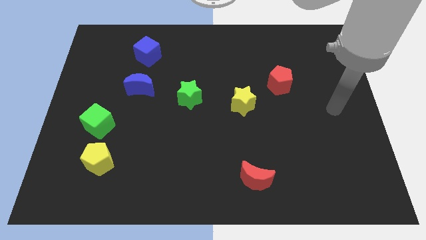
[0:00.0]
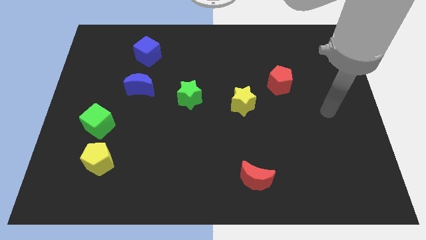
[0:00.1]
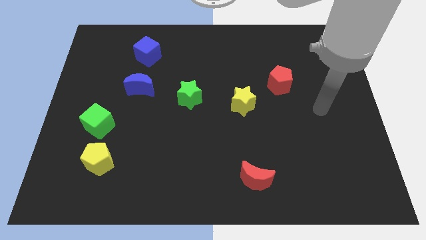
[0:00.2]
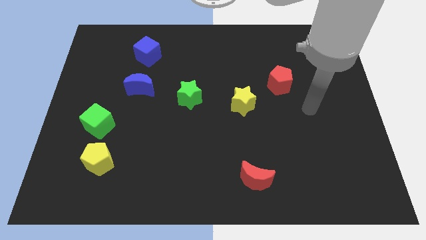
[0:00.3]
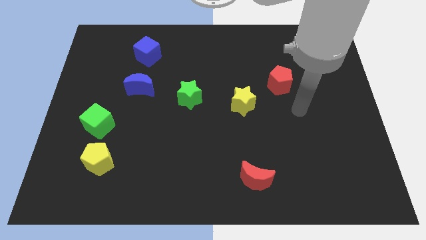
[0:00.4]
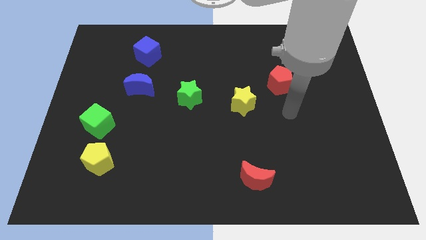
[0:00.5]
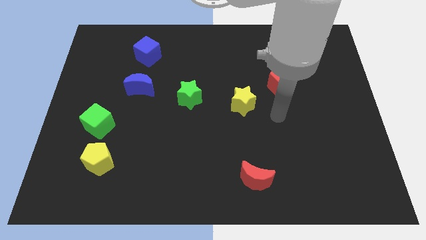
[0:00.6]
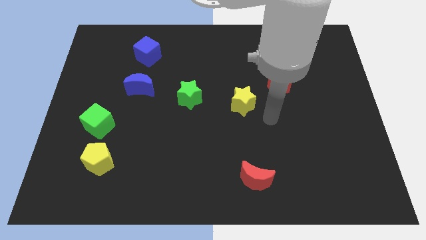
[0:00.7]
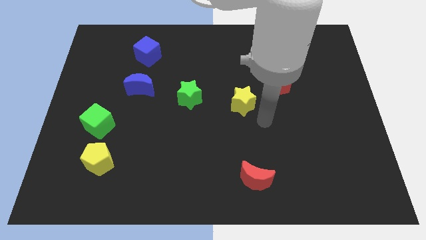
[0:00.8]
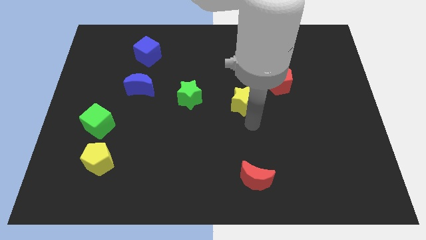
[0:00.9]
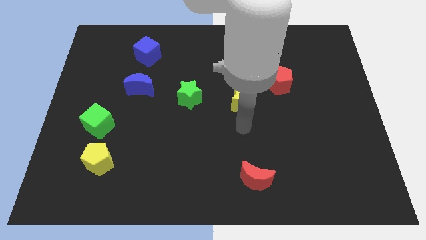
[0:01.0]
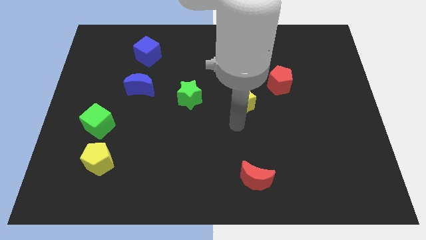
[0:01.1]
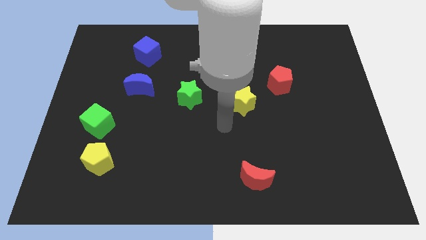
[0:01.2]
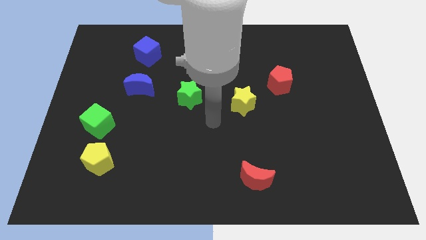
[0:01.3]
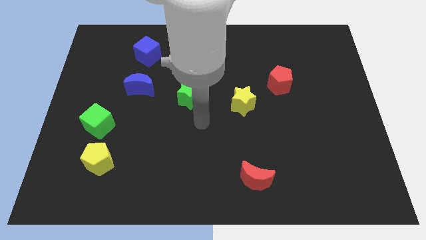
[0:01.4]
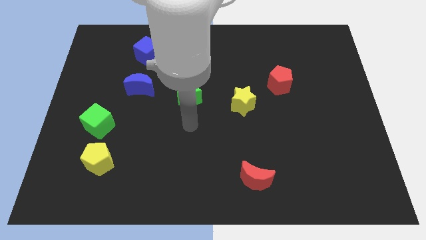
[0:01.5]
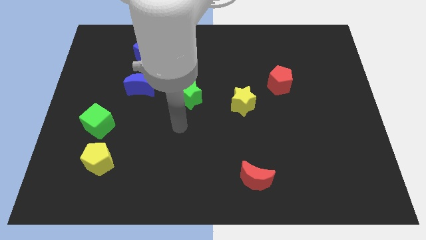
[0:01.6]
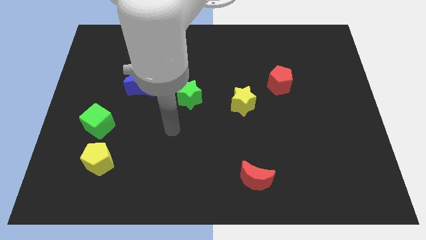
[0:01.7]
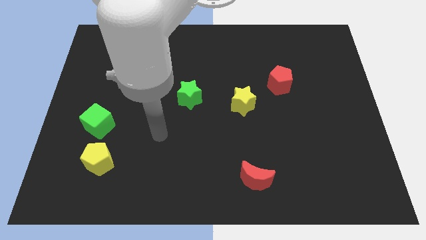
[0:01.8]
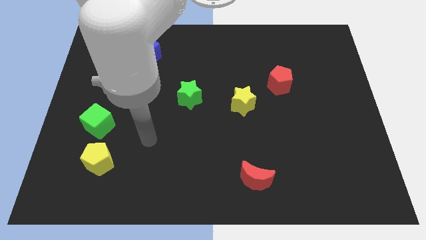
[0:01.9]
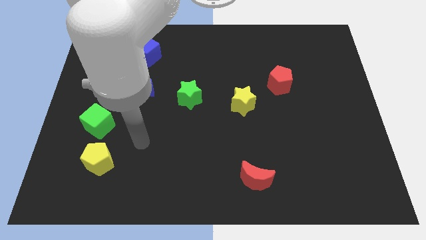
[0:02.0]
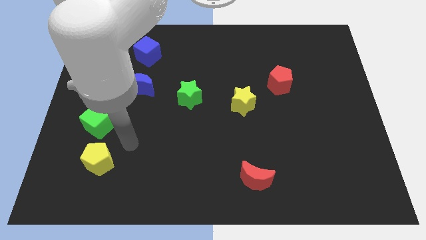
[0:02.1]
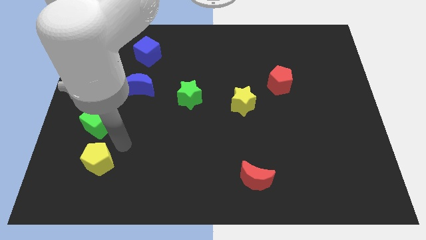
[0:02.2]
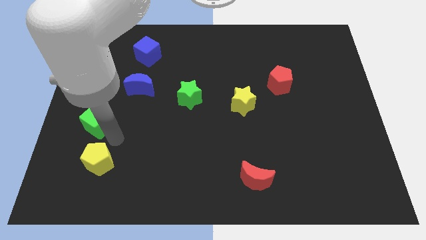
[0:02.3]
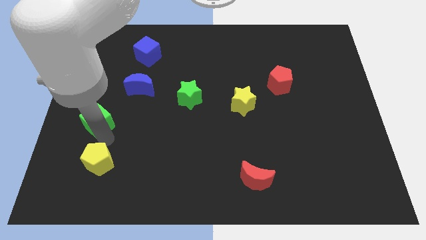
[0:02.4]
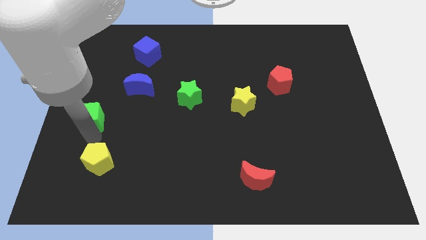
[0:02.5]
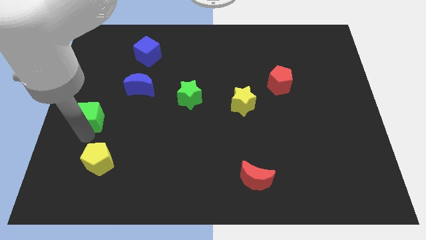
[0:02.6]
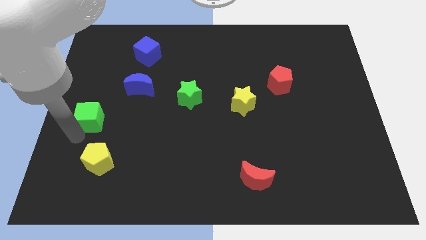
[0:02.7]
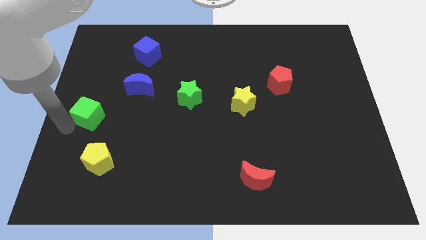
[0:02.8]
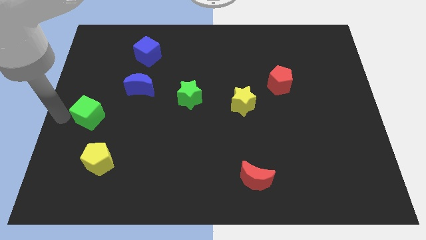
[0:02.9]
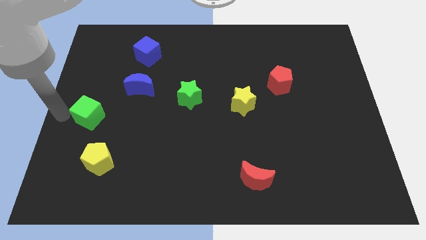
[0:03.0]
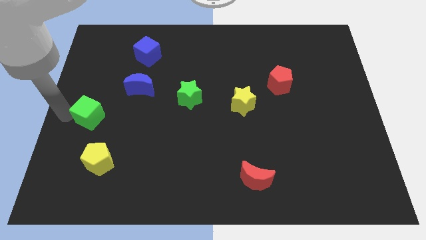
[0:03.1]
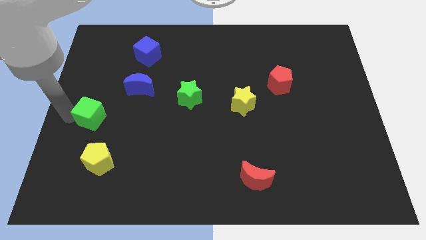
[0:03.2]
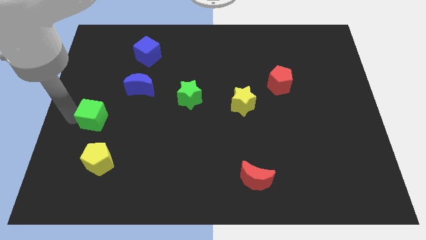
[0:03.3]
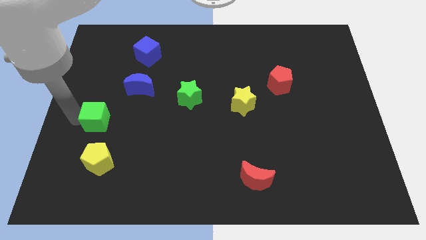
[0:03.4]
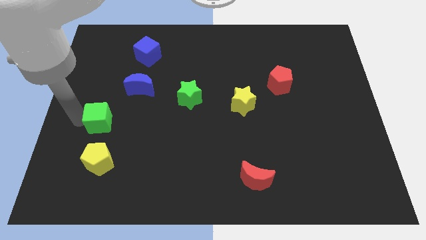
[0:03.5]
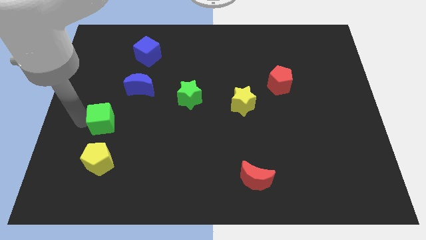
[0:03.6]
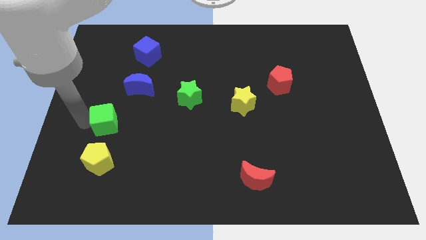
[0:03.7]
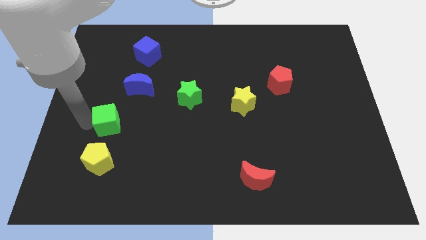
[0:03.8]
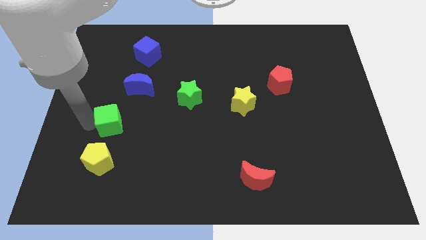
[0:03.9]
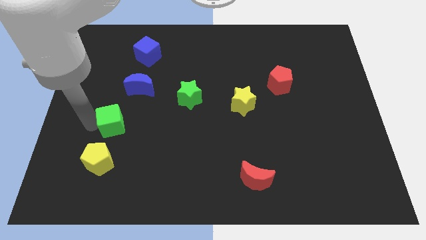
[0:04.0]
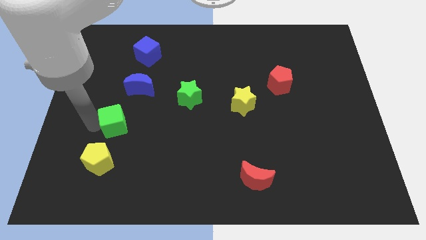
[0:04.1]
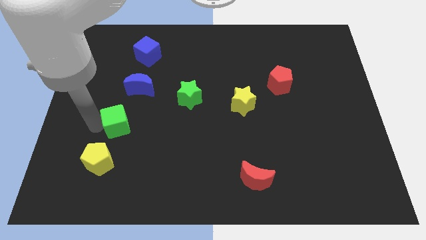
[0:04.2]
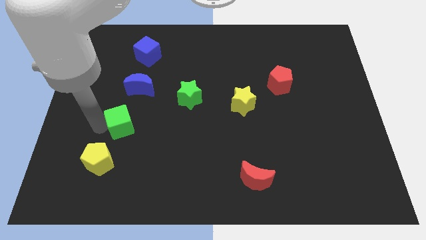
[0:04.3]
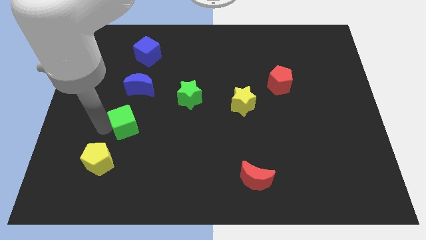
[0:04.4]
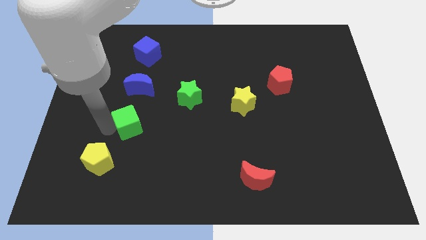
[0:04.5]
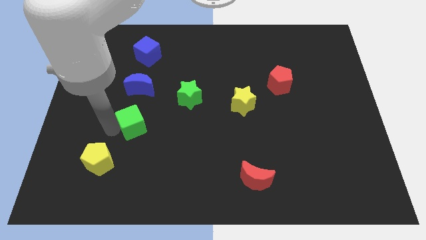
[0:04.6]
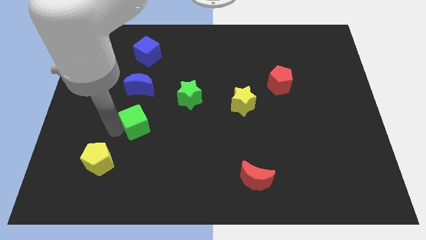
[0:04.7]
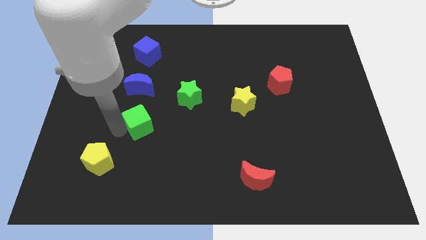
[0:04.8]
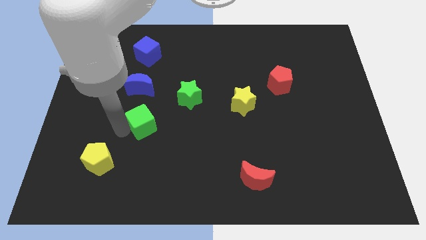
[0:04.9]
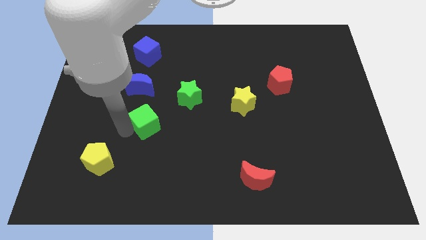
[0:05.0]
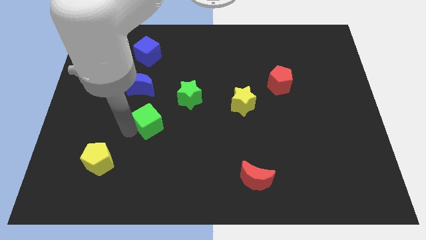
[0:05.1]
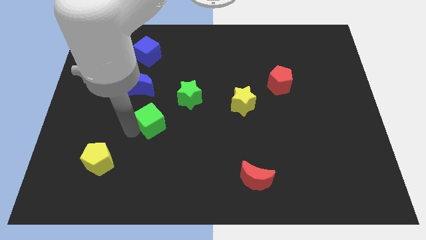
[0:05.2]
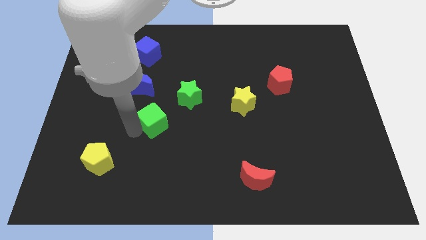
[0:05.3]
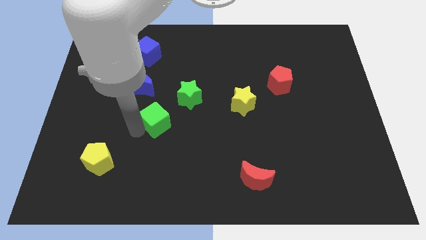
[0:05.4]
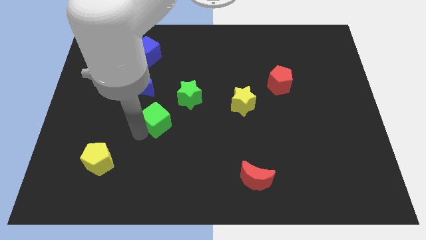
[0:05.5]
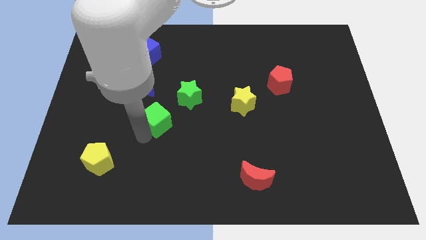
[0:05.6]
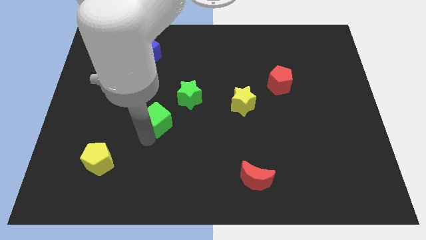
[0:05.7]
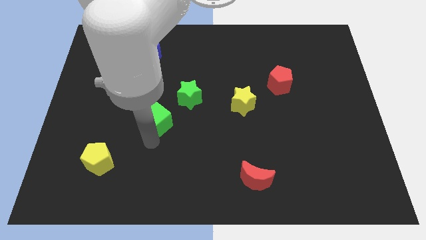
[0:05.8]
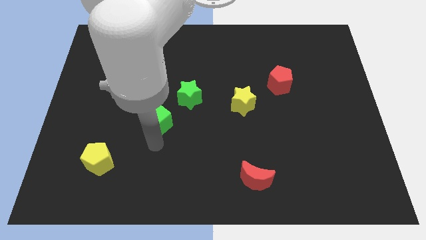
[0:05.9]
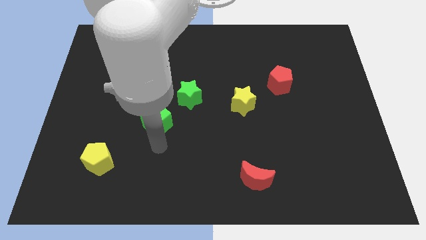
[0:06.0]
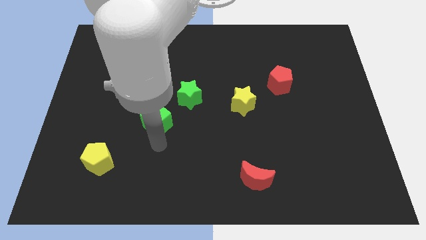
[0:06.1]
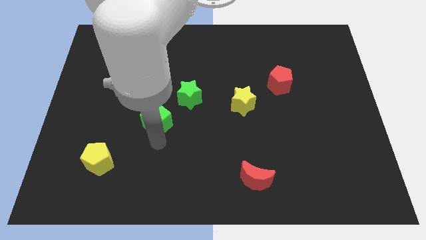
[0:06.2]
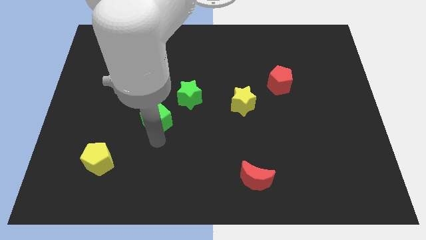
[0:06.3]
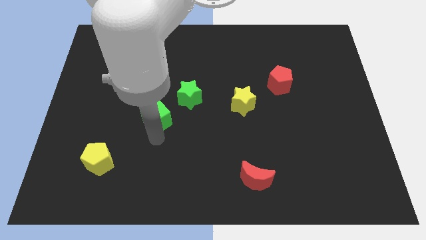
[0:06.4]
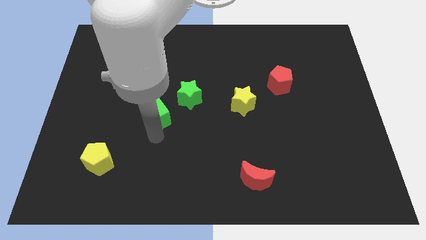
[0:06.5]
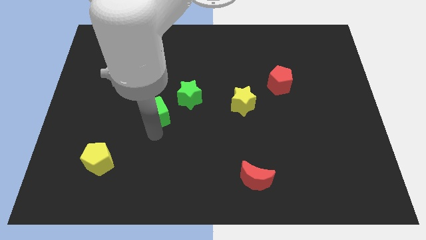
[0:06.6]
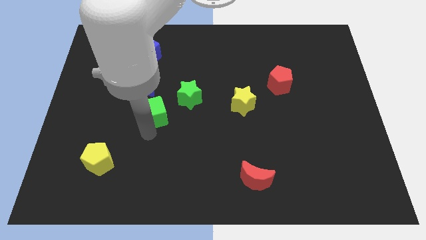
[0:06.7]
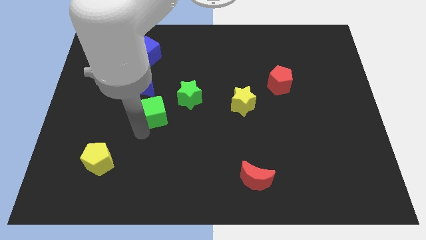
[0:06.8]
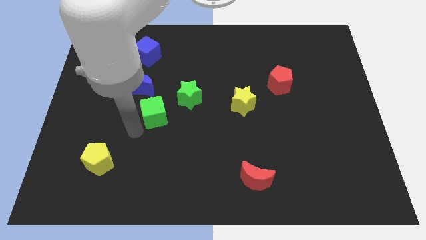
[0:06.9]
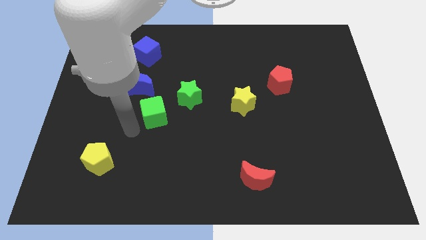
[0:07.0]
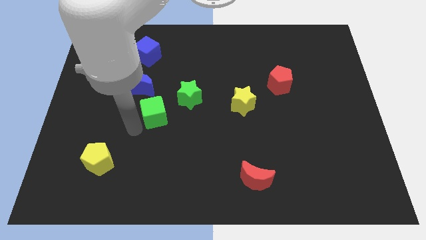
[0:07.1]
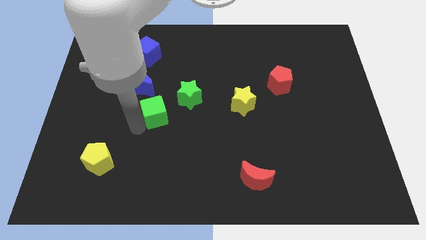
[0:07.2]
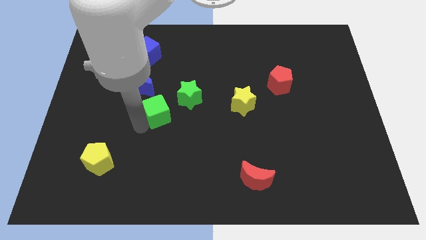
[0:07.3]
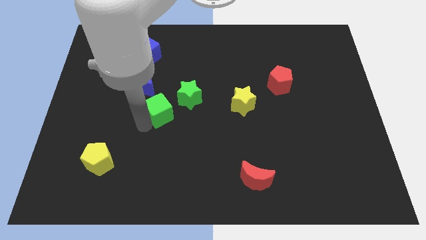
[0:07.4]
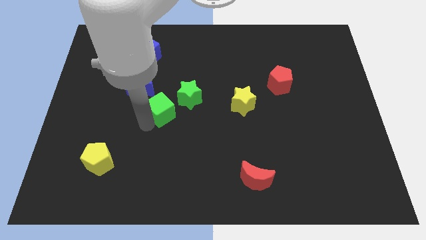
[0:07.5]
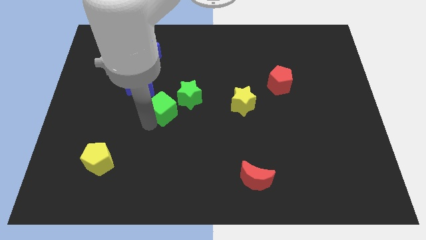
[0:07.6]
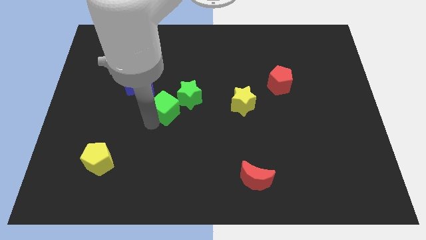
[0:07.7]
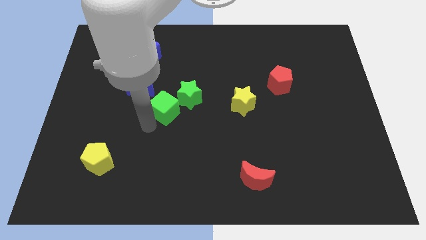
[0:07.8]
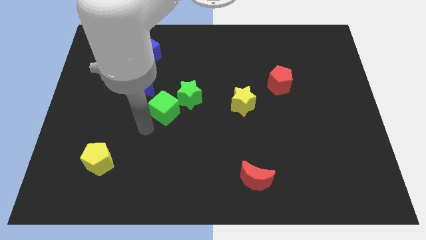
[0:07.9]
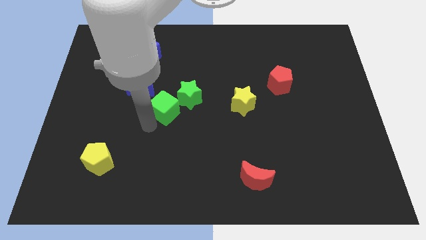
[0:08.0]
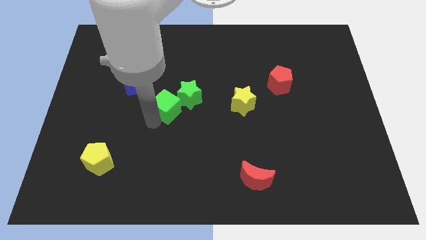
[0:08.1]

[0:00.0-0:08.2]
slide the green cube to the green star
